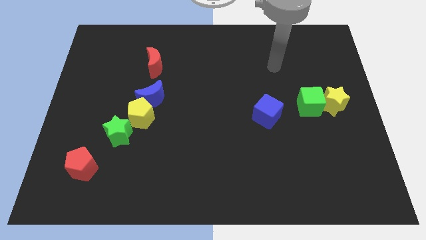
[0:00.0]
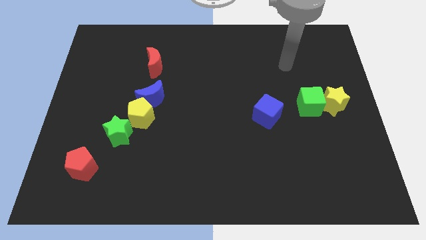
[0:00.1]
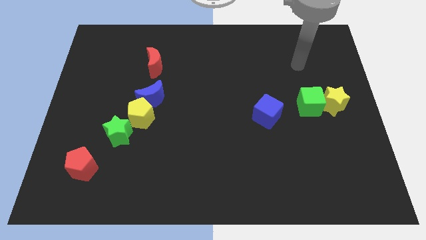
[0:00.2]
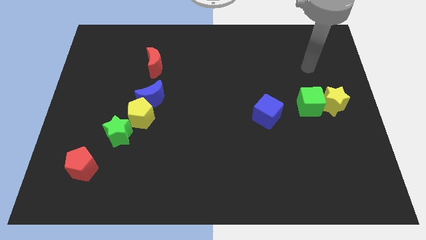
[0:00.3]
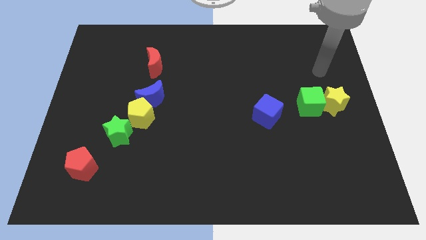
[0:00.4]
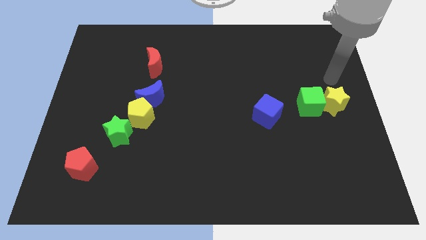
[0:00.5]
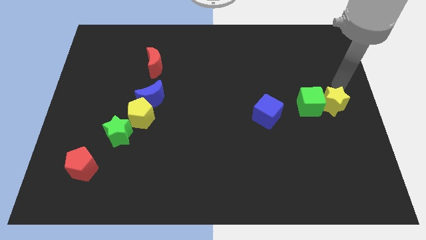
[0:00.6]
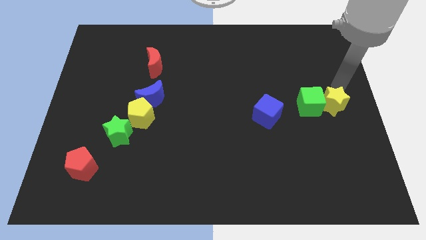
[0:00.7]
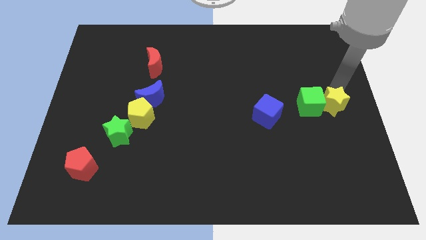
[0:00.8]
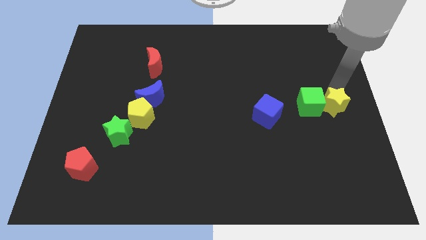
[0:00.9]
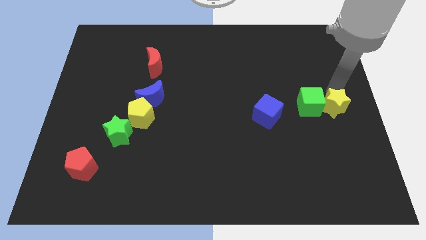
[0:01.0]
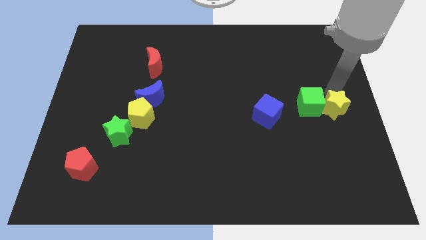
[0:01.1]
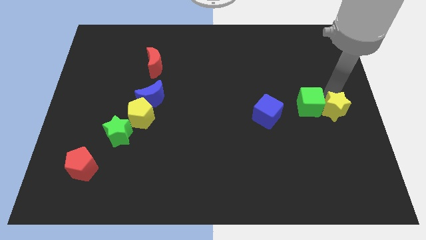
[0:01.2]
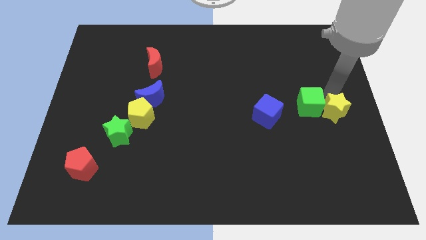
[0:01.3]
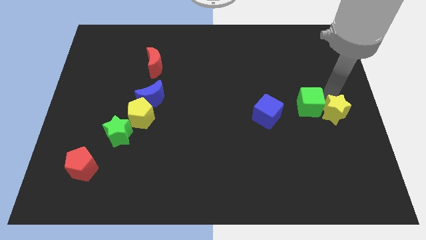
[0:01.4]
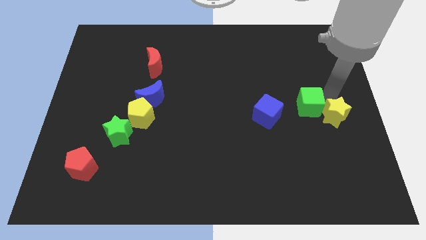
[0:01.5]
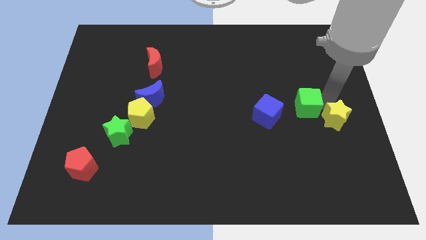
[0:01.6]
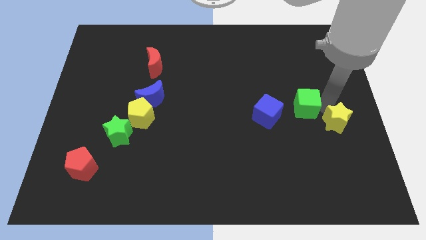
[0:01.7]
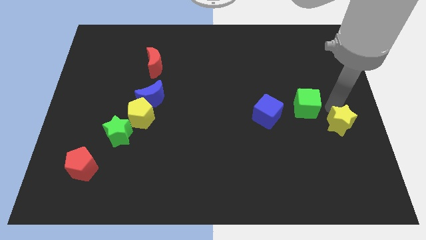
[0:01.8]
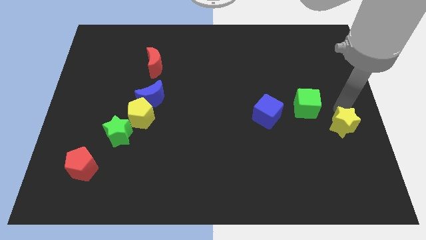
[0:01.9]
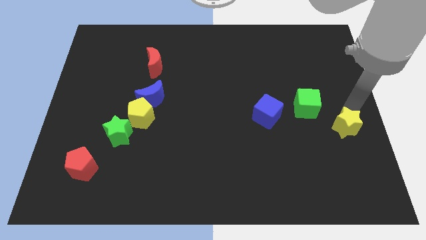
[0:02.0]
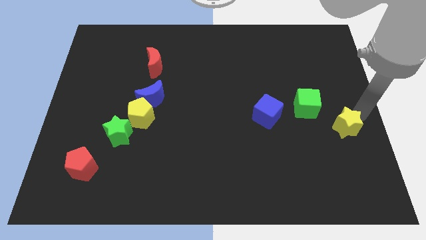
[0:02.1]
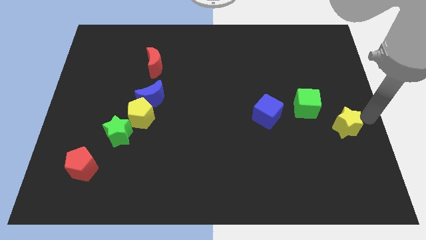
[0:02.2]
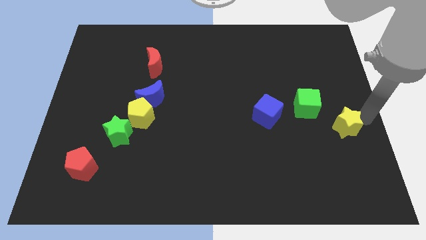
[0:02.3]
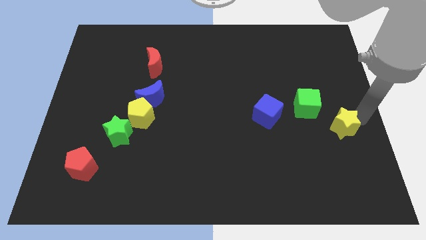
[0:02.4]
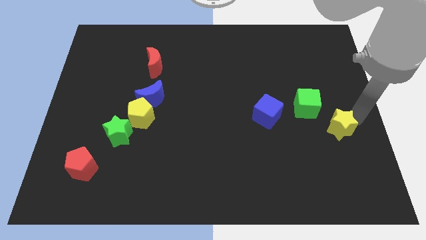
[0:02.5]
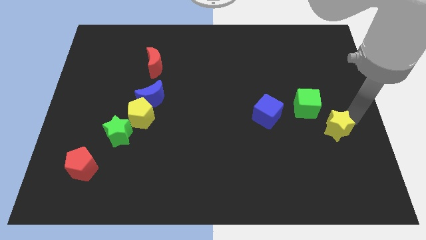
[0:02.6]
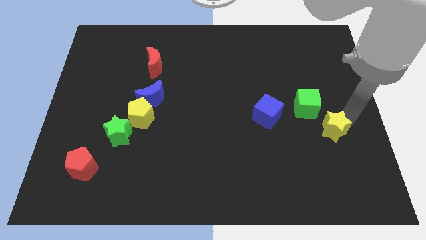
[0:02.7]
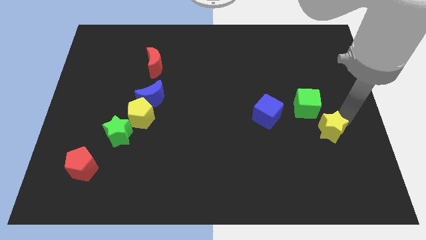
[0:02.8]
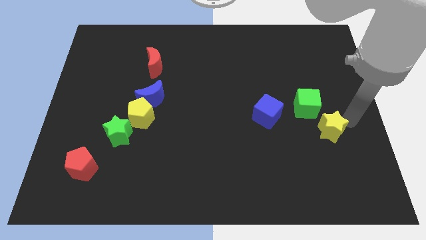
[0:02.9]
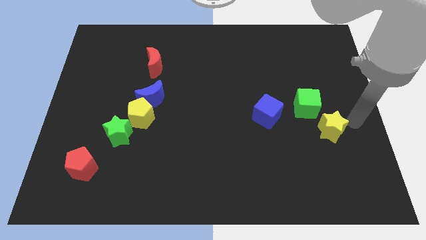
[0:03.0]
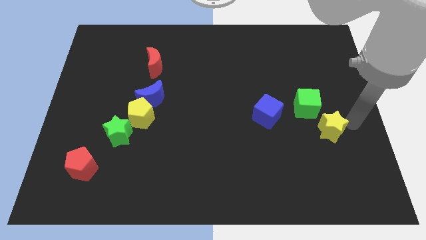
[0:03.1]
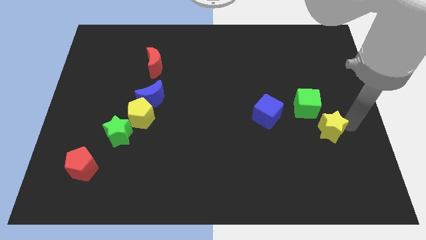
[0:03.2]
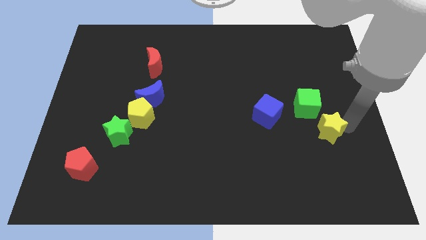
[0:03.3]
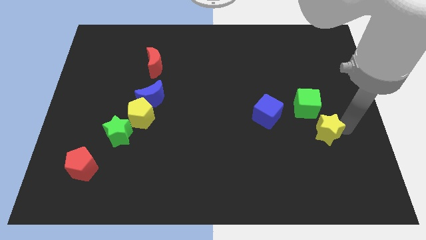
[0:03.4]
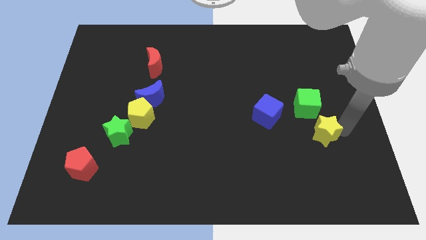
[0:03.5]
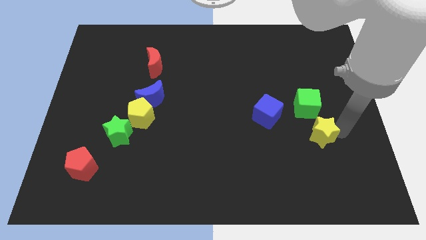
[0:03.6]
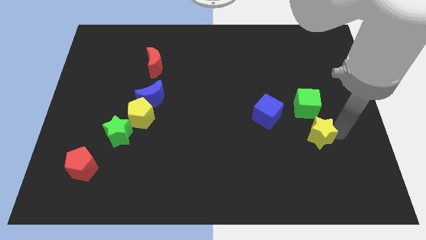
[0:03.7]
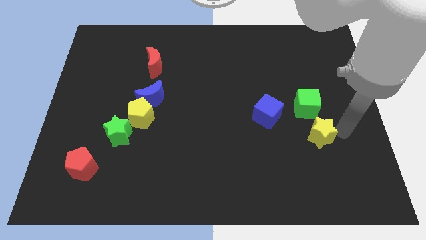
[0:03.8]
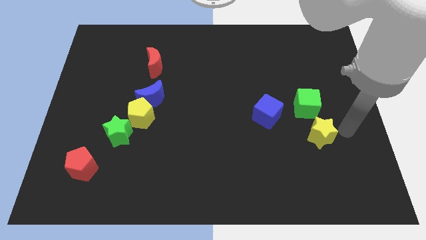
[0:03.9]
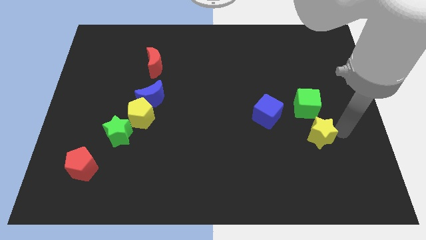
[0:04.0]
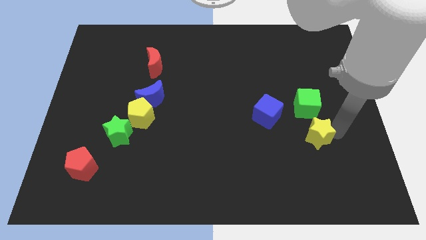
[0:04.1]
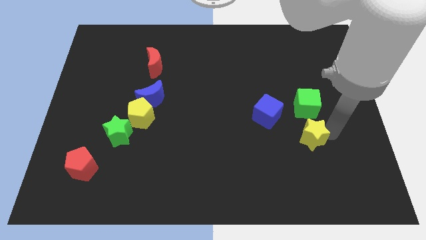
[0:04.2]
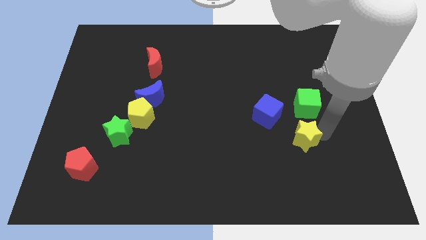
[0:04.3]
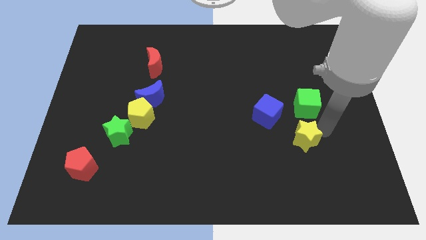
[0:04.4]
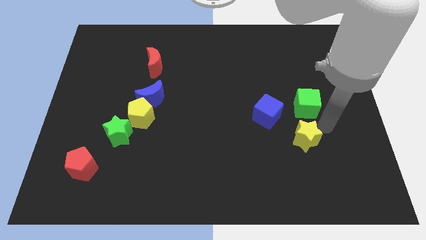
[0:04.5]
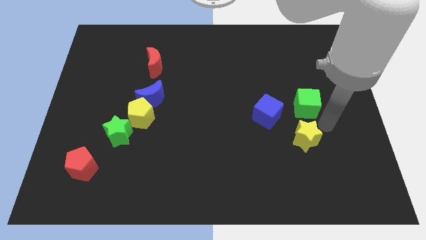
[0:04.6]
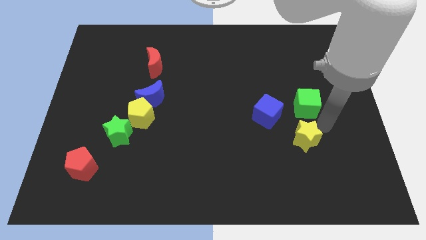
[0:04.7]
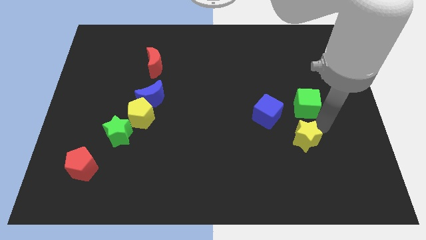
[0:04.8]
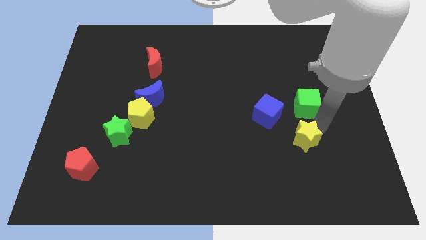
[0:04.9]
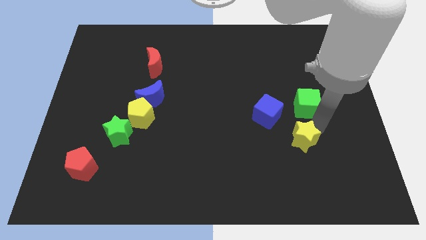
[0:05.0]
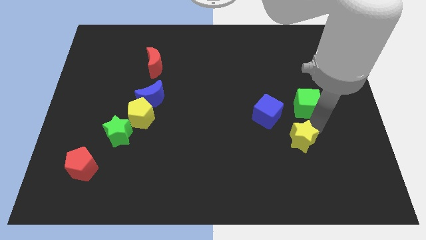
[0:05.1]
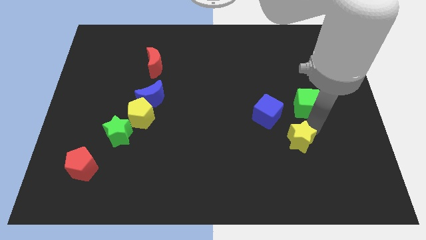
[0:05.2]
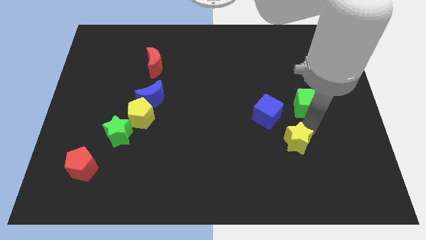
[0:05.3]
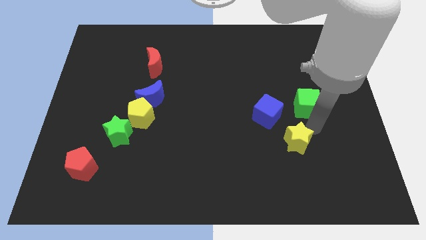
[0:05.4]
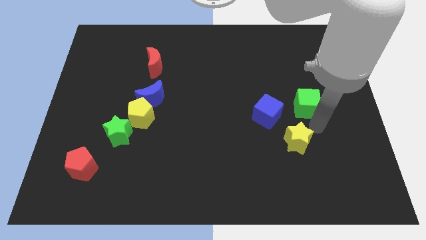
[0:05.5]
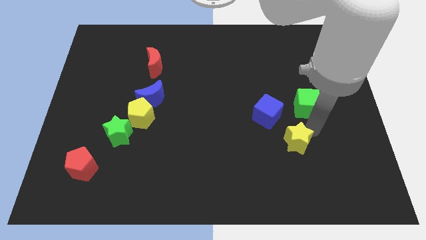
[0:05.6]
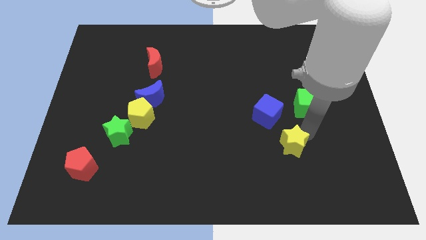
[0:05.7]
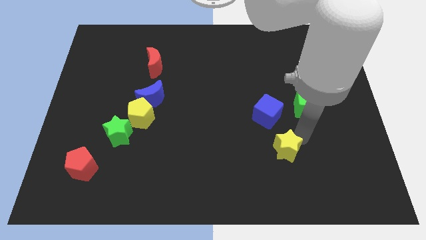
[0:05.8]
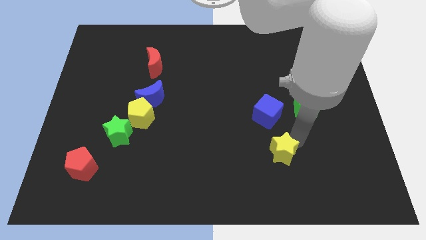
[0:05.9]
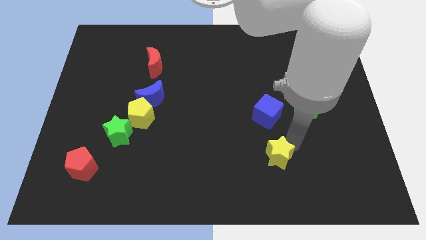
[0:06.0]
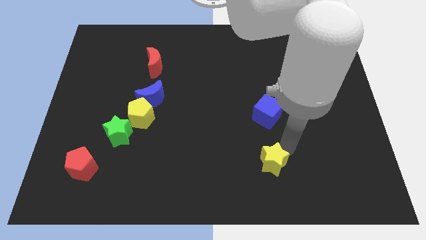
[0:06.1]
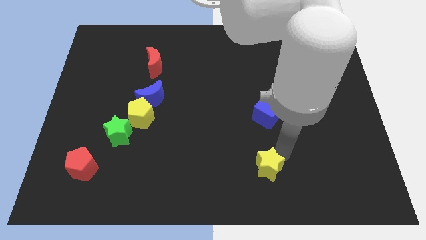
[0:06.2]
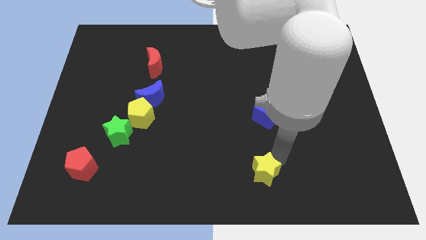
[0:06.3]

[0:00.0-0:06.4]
push the yellow star to the bottom side

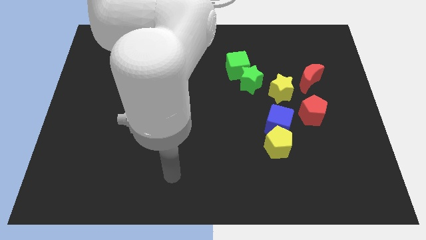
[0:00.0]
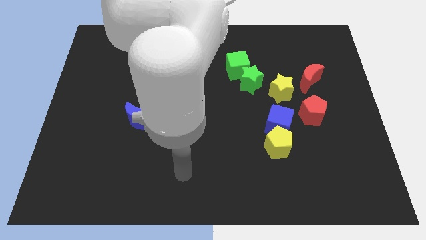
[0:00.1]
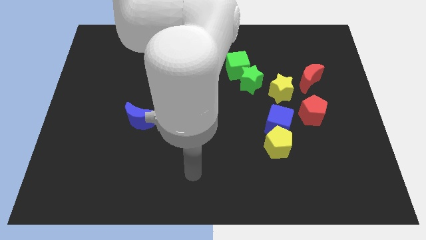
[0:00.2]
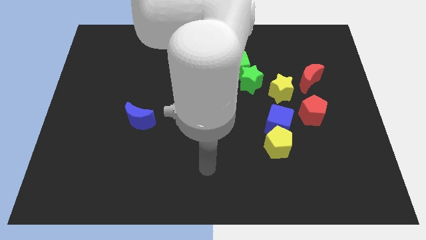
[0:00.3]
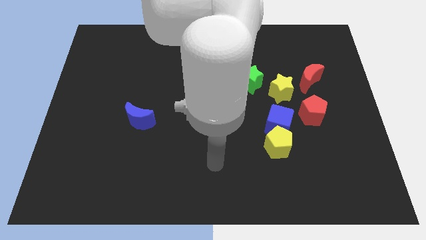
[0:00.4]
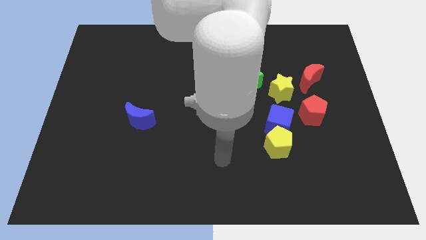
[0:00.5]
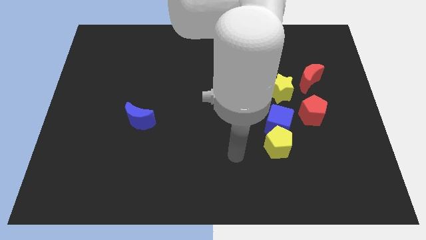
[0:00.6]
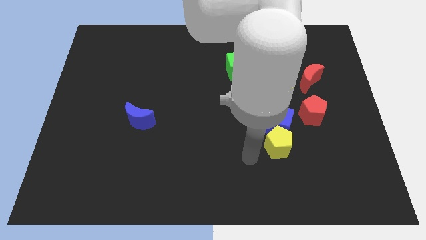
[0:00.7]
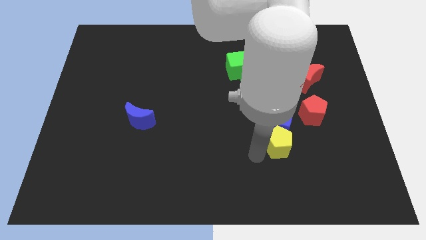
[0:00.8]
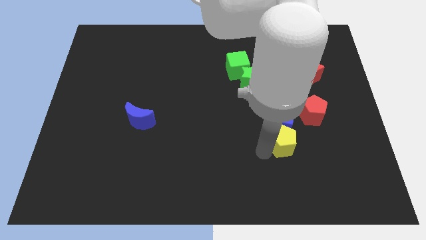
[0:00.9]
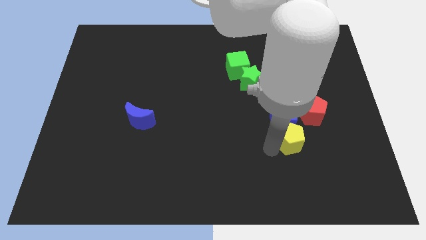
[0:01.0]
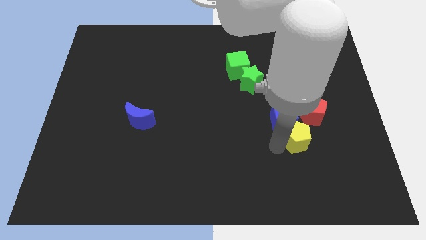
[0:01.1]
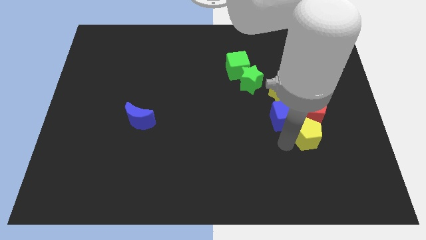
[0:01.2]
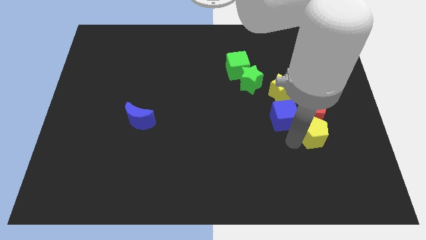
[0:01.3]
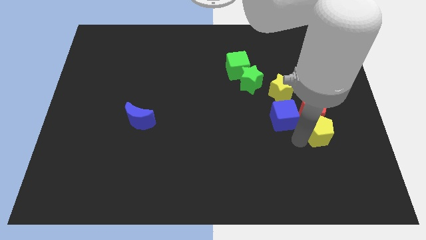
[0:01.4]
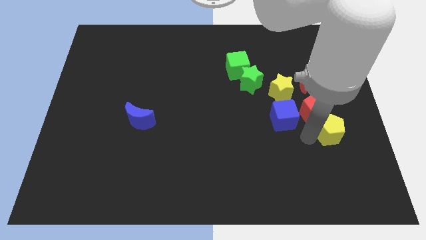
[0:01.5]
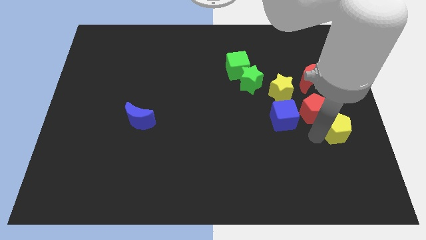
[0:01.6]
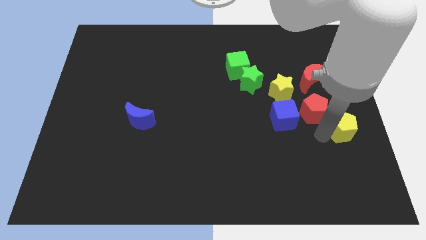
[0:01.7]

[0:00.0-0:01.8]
put the yellow pentagon to the right side
